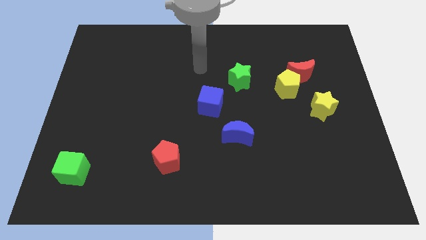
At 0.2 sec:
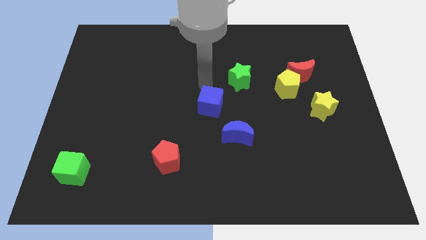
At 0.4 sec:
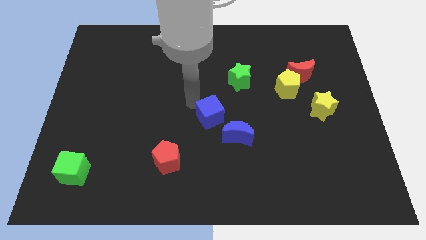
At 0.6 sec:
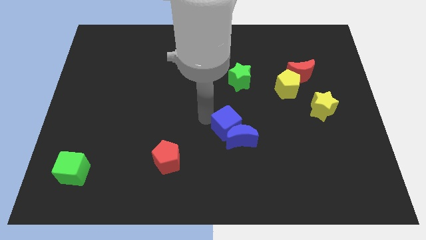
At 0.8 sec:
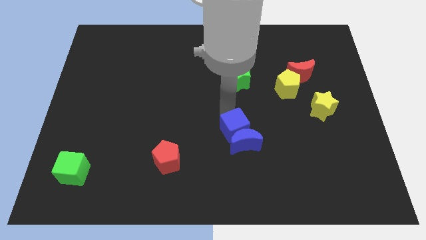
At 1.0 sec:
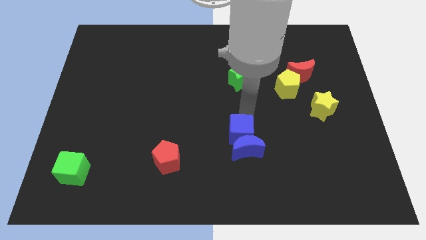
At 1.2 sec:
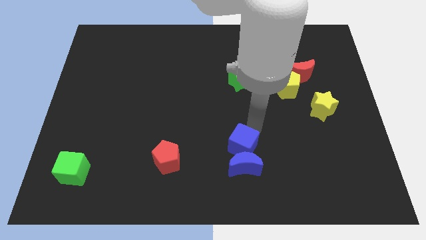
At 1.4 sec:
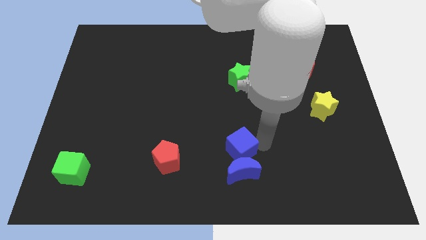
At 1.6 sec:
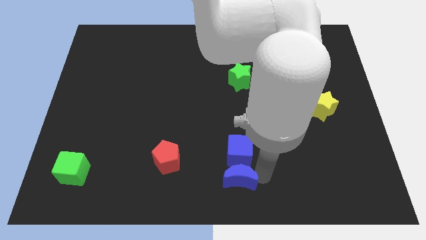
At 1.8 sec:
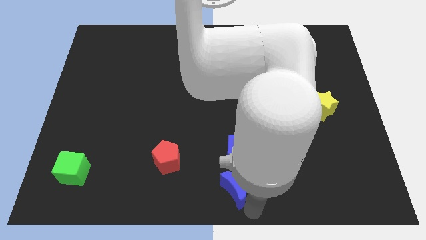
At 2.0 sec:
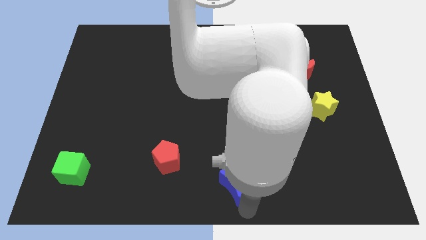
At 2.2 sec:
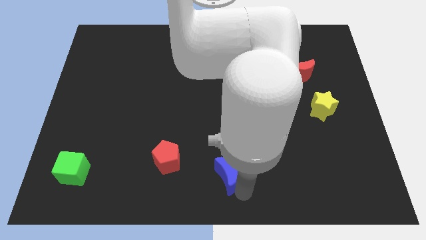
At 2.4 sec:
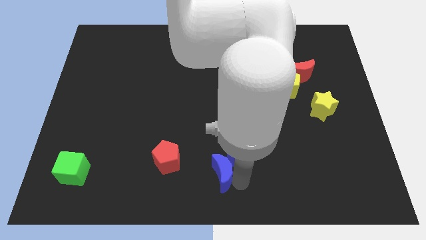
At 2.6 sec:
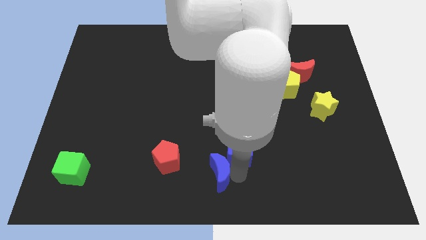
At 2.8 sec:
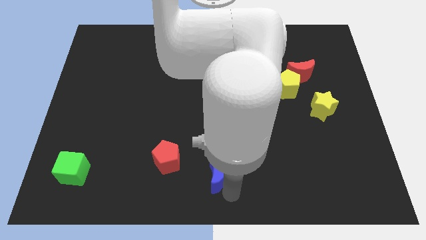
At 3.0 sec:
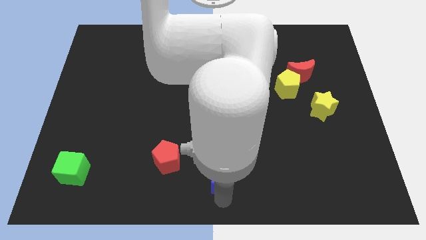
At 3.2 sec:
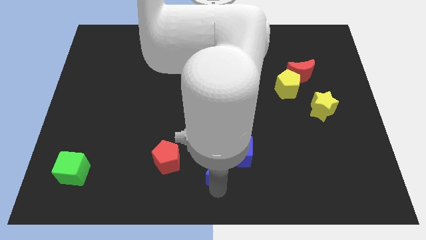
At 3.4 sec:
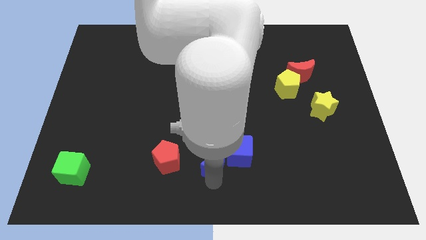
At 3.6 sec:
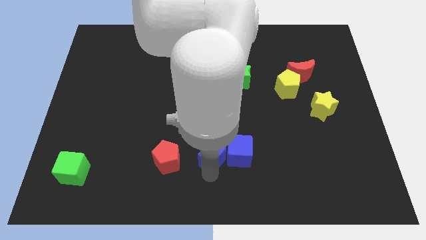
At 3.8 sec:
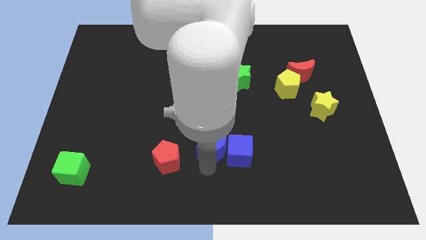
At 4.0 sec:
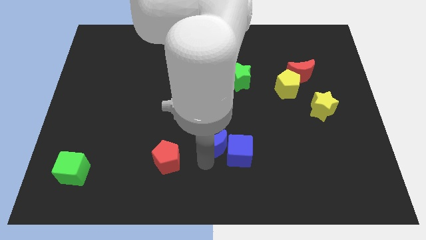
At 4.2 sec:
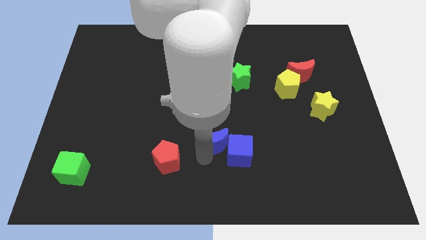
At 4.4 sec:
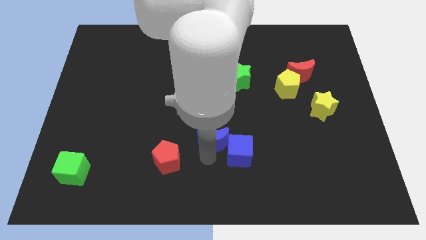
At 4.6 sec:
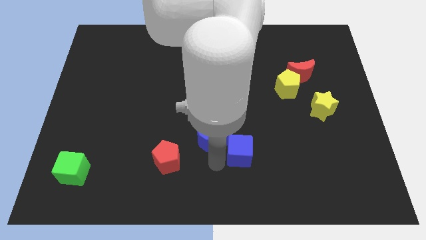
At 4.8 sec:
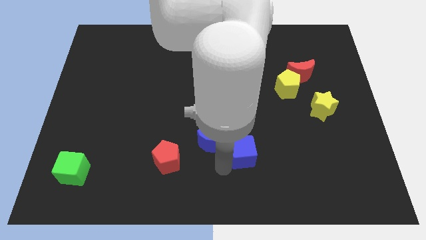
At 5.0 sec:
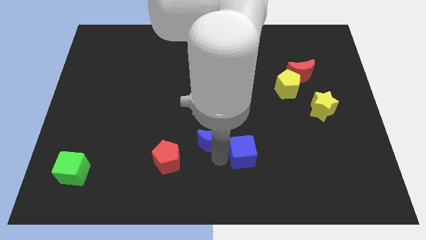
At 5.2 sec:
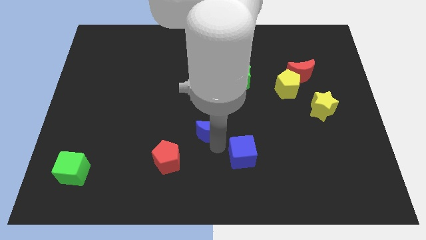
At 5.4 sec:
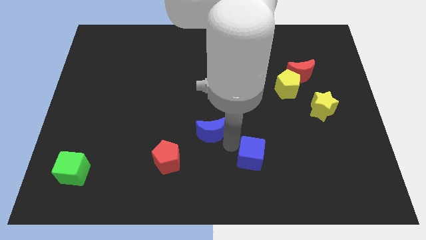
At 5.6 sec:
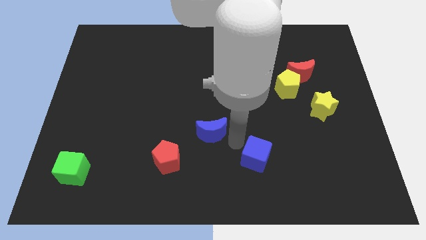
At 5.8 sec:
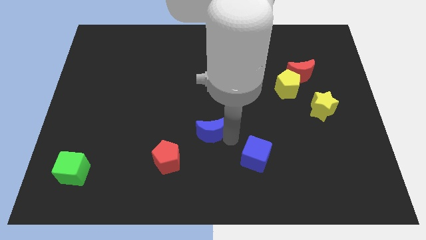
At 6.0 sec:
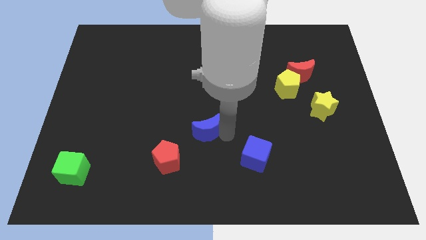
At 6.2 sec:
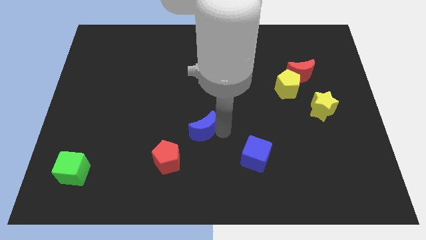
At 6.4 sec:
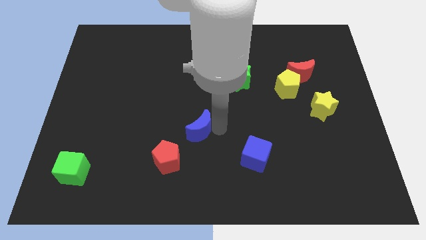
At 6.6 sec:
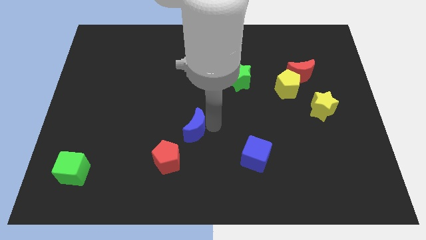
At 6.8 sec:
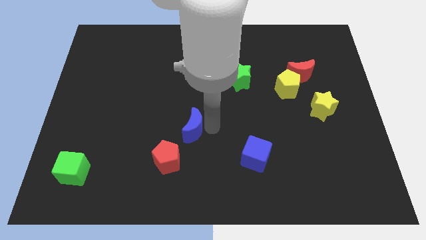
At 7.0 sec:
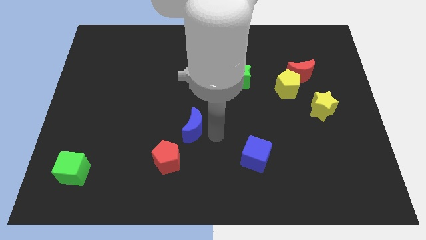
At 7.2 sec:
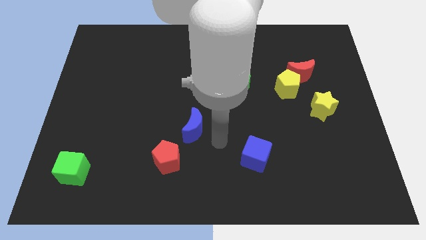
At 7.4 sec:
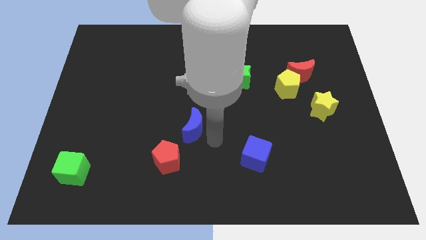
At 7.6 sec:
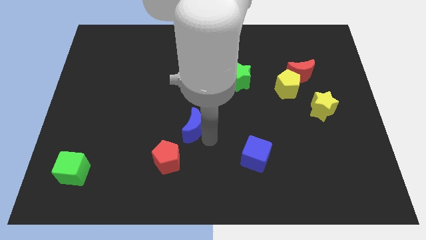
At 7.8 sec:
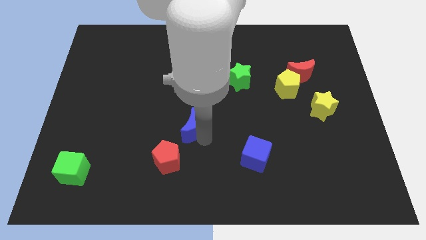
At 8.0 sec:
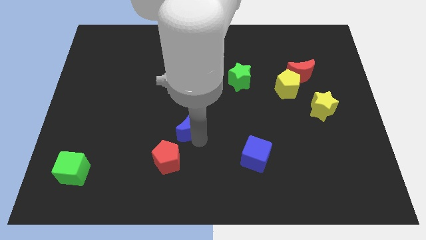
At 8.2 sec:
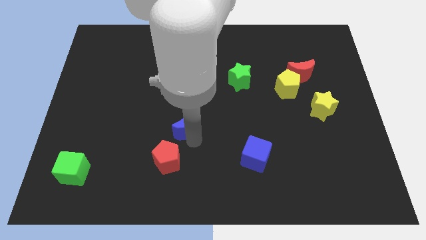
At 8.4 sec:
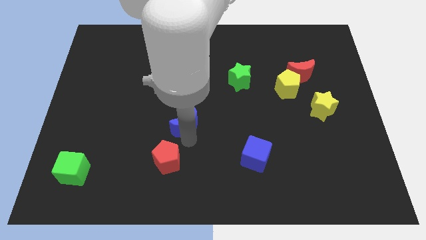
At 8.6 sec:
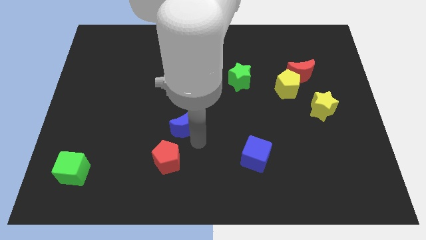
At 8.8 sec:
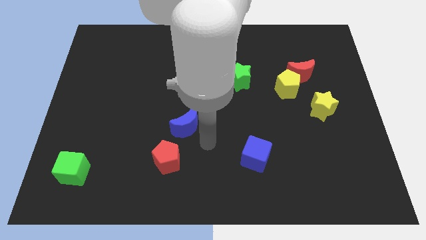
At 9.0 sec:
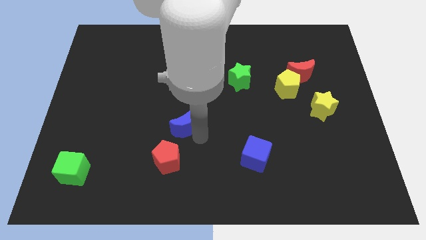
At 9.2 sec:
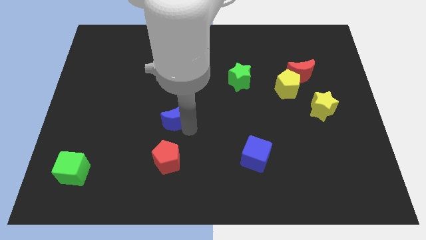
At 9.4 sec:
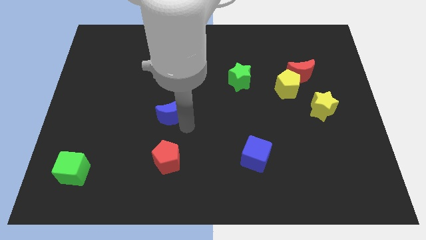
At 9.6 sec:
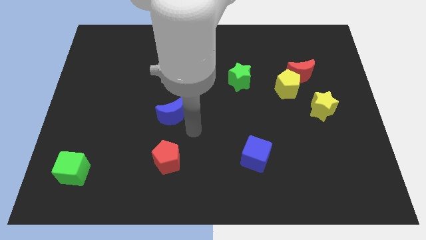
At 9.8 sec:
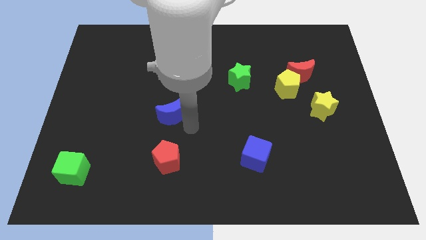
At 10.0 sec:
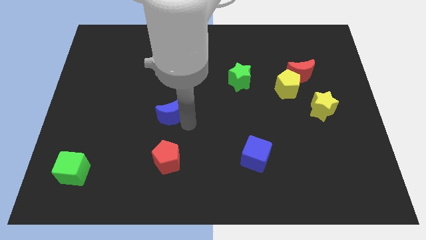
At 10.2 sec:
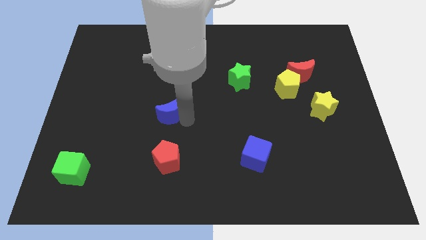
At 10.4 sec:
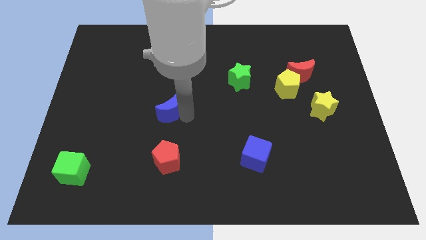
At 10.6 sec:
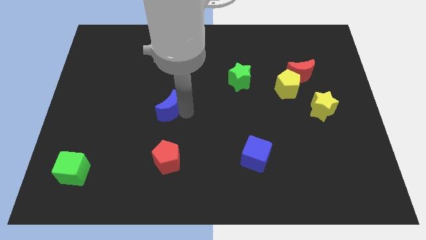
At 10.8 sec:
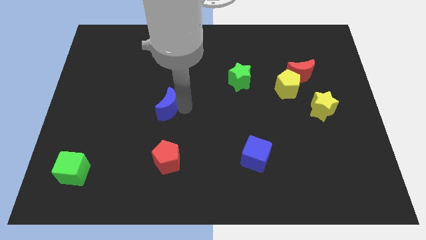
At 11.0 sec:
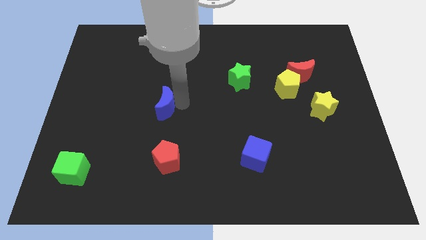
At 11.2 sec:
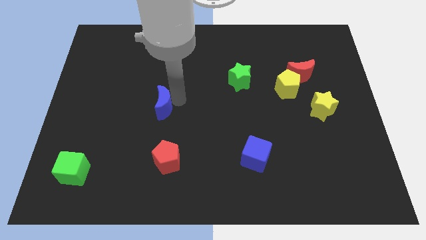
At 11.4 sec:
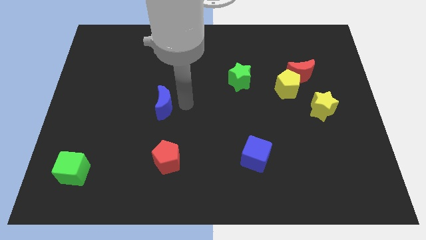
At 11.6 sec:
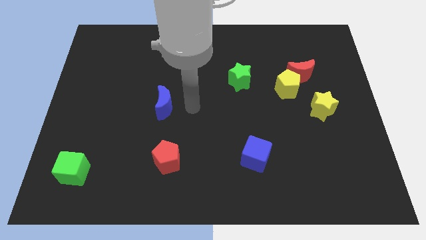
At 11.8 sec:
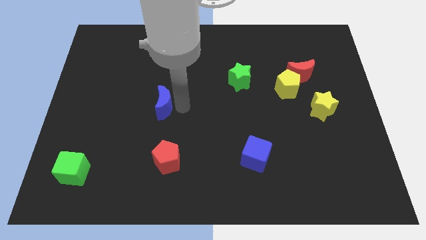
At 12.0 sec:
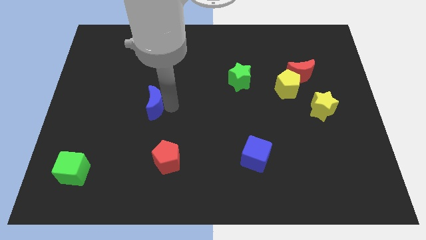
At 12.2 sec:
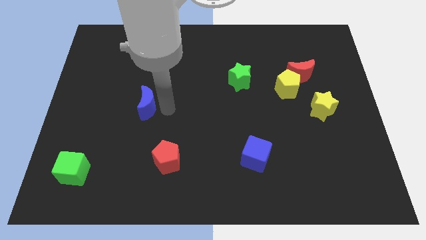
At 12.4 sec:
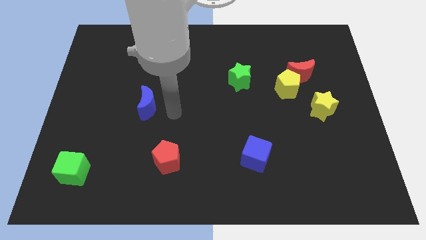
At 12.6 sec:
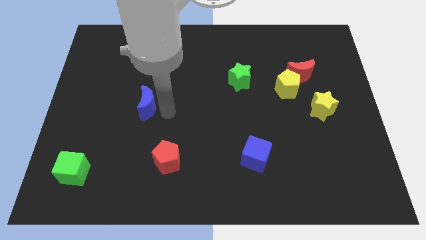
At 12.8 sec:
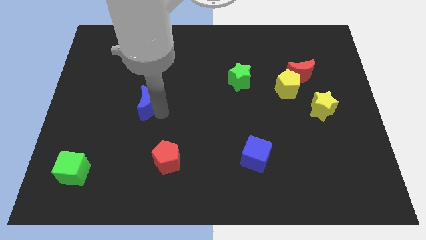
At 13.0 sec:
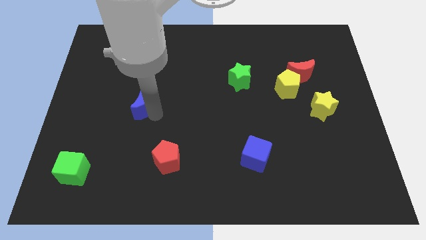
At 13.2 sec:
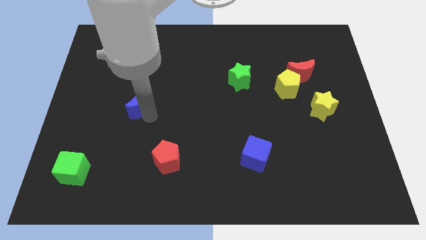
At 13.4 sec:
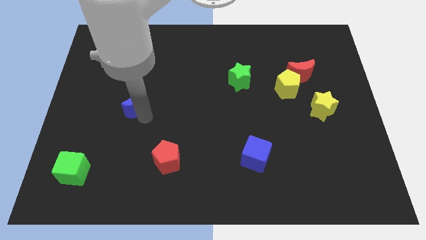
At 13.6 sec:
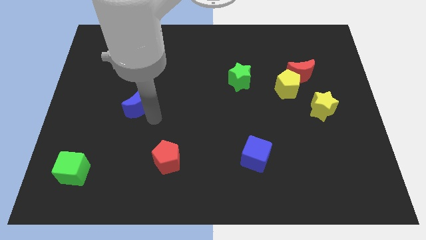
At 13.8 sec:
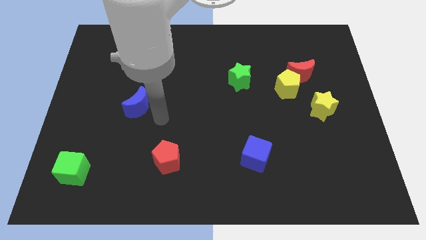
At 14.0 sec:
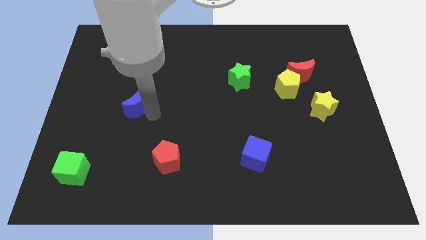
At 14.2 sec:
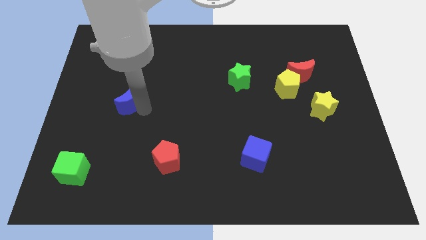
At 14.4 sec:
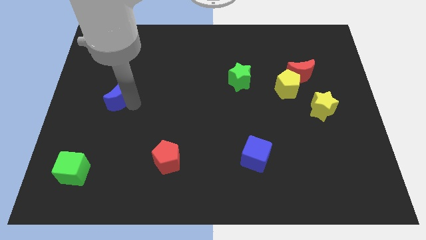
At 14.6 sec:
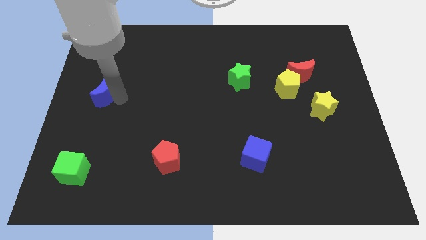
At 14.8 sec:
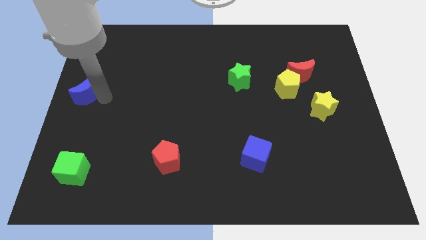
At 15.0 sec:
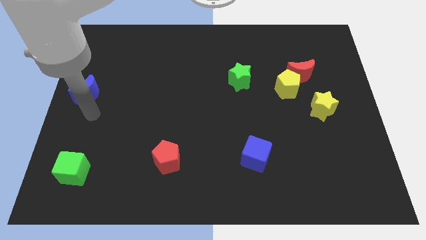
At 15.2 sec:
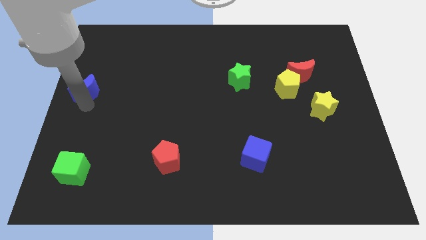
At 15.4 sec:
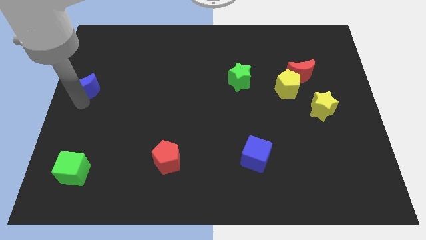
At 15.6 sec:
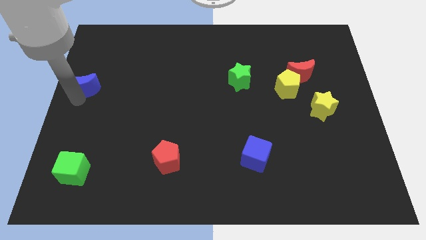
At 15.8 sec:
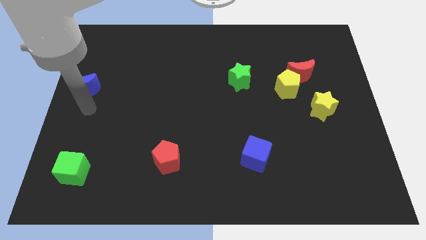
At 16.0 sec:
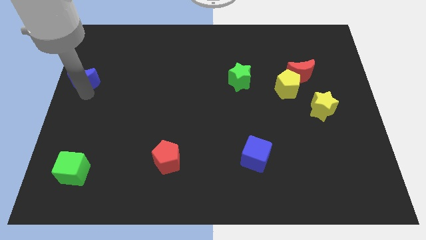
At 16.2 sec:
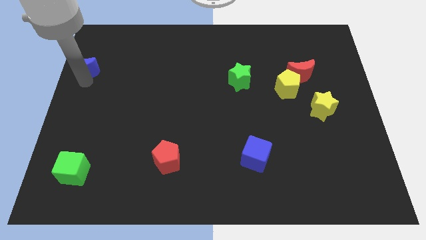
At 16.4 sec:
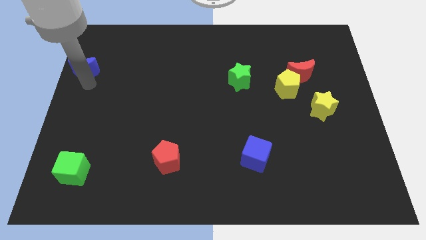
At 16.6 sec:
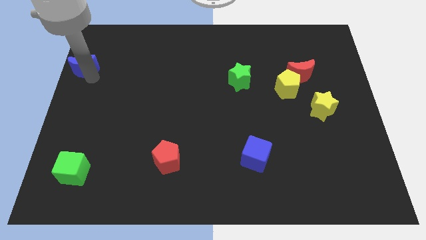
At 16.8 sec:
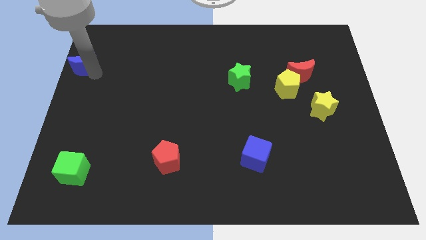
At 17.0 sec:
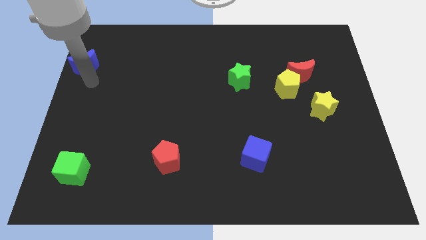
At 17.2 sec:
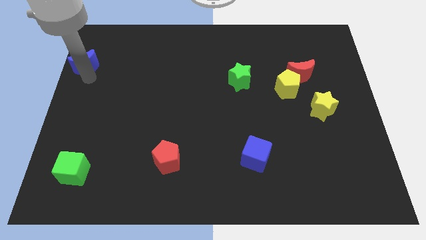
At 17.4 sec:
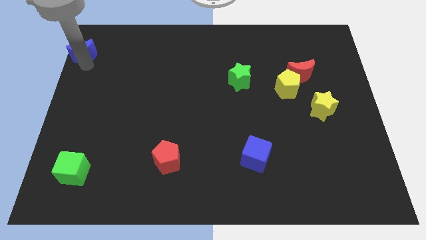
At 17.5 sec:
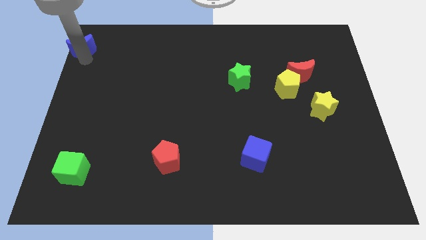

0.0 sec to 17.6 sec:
slide the blue moon to the top left
